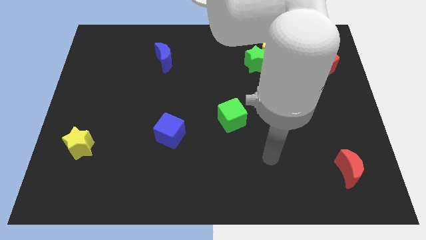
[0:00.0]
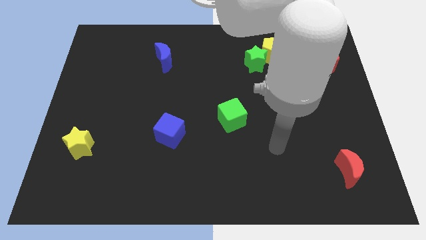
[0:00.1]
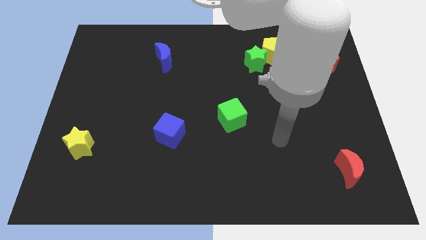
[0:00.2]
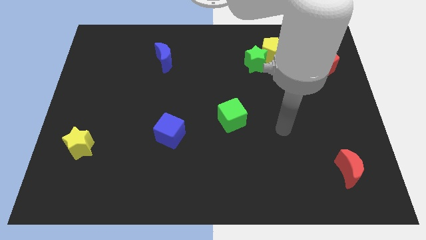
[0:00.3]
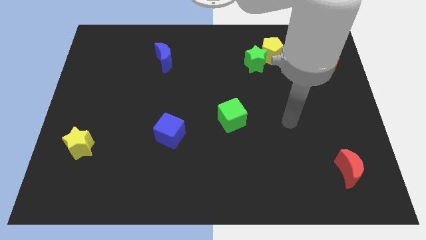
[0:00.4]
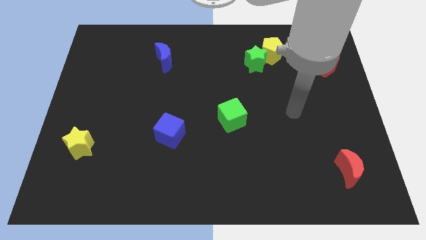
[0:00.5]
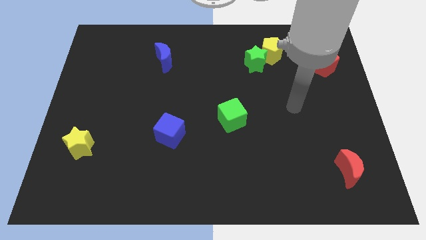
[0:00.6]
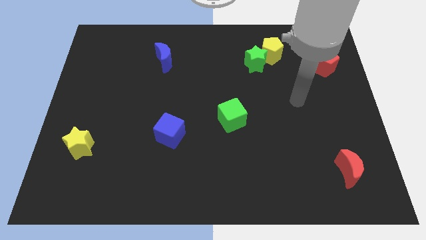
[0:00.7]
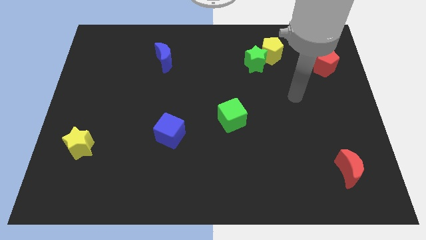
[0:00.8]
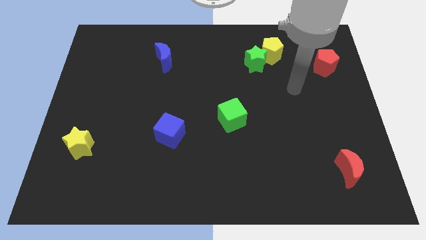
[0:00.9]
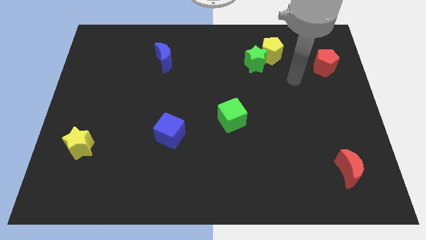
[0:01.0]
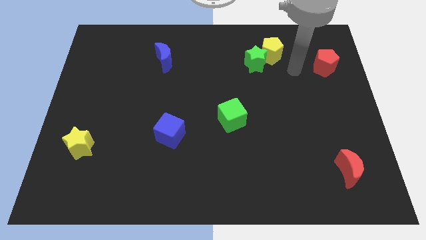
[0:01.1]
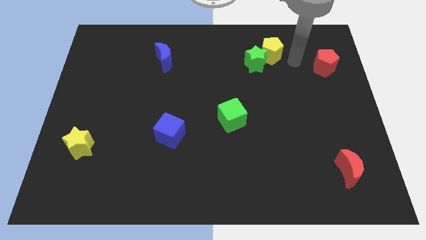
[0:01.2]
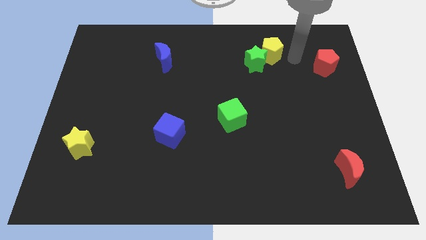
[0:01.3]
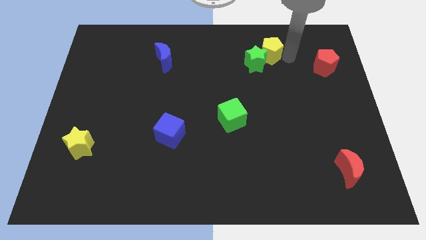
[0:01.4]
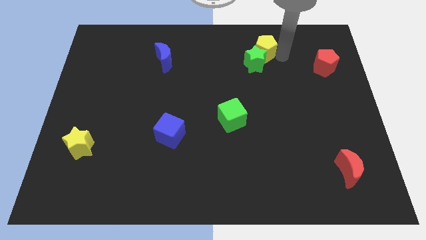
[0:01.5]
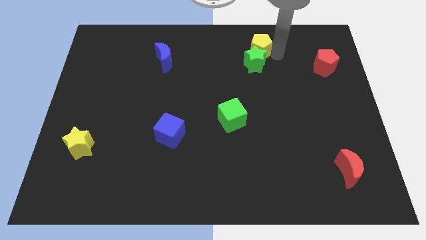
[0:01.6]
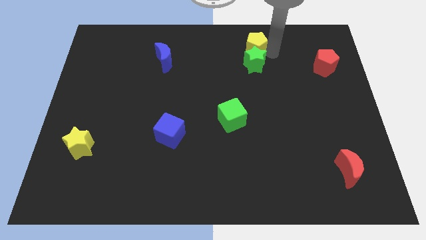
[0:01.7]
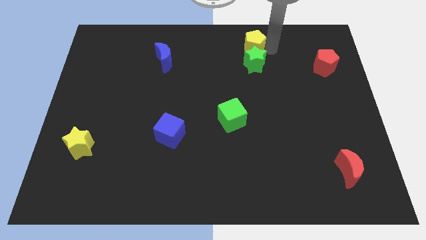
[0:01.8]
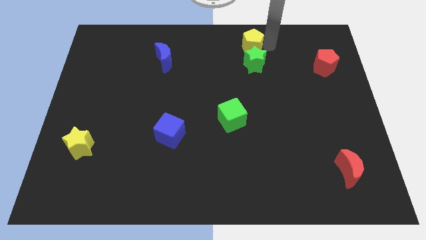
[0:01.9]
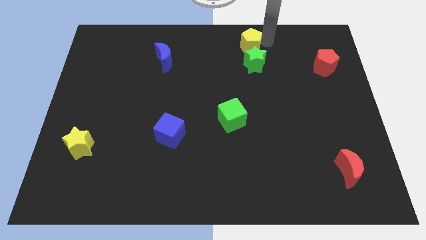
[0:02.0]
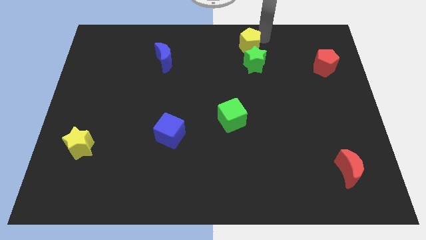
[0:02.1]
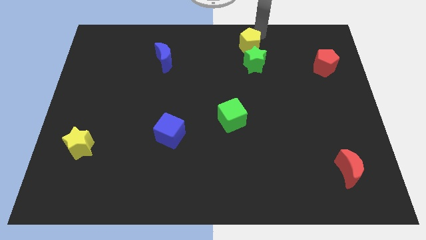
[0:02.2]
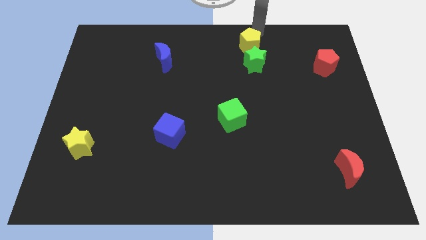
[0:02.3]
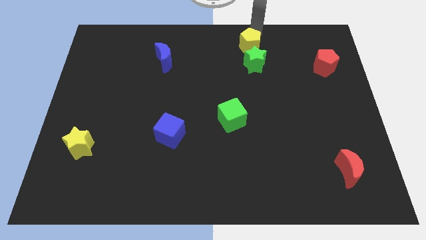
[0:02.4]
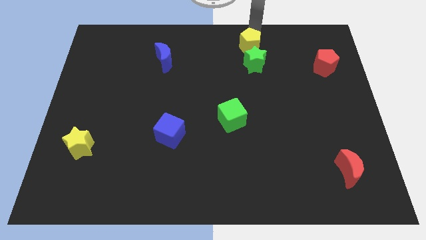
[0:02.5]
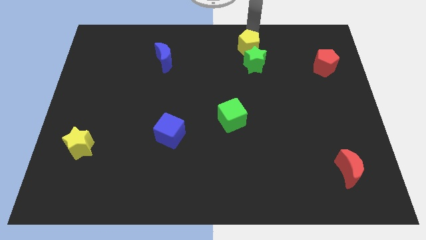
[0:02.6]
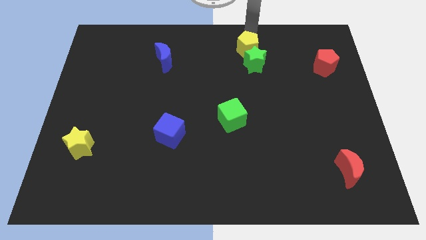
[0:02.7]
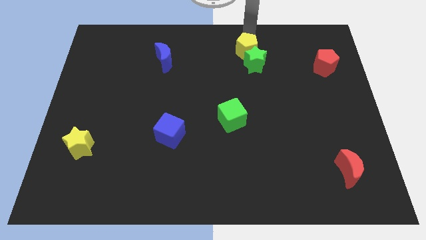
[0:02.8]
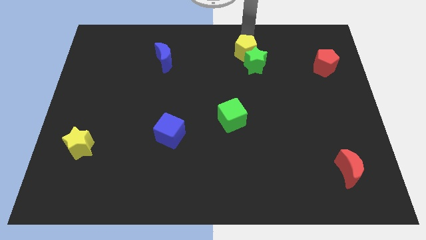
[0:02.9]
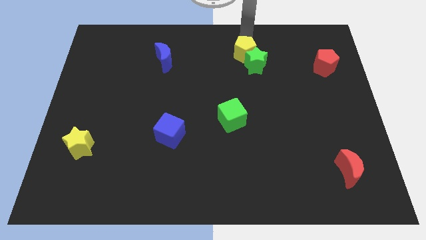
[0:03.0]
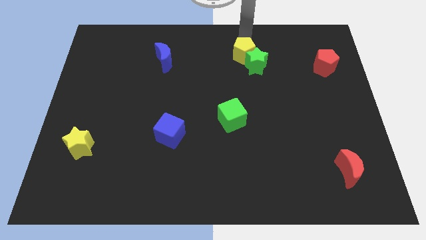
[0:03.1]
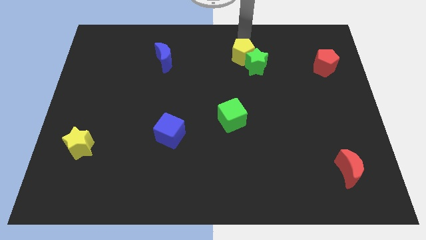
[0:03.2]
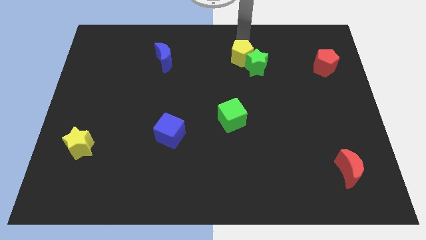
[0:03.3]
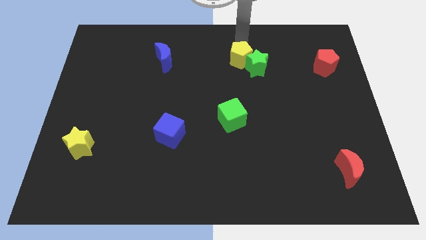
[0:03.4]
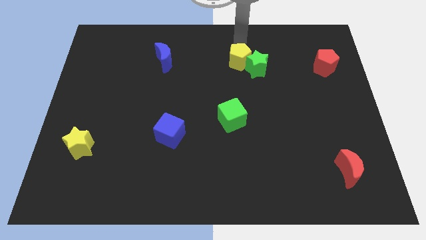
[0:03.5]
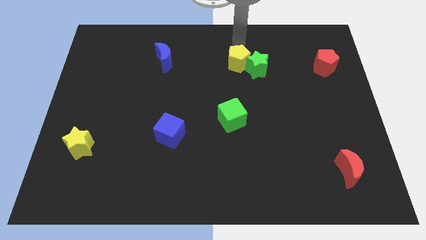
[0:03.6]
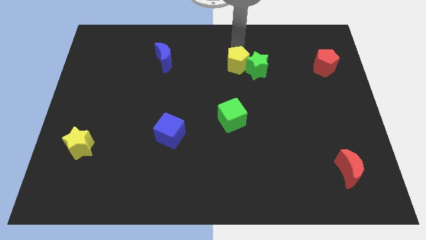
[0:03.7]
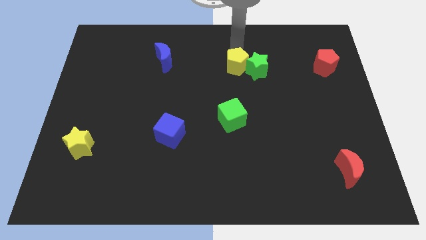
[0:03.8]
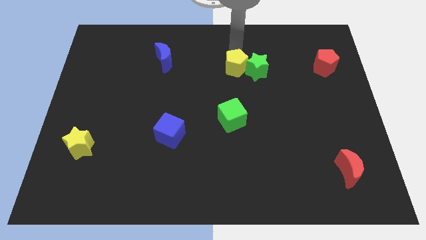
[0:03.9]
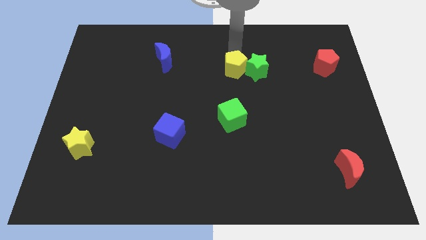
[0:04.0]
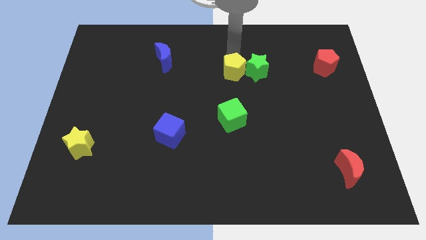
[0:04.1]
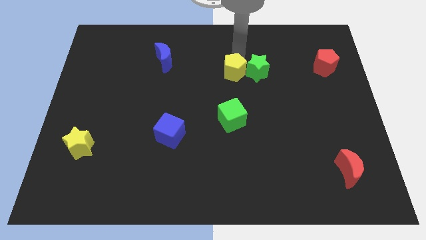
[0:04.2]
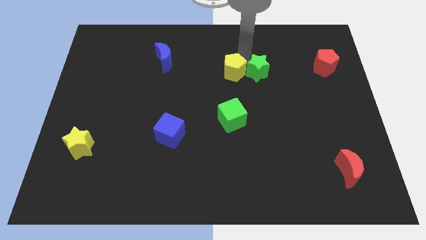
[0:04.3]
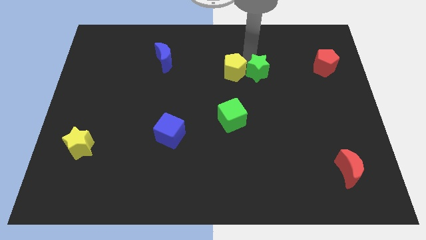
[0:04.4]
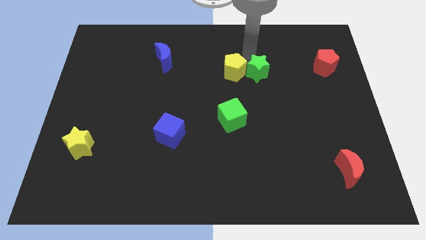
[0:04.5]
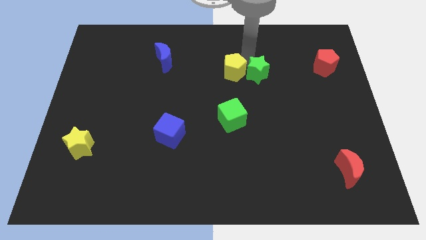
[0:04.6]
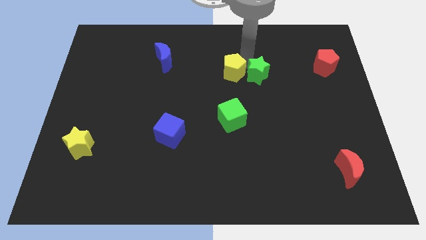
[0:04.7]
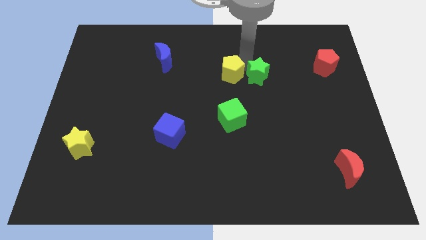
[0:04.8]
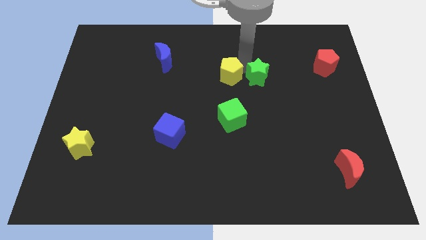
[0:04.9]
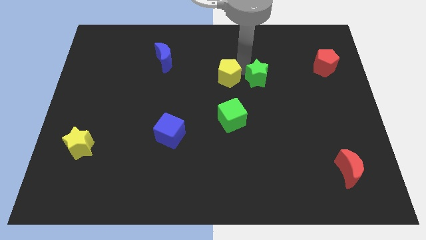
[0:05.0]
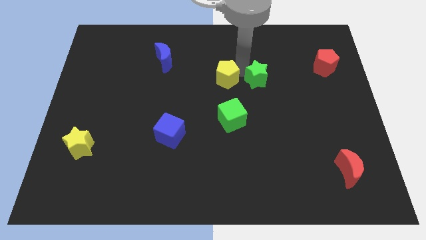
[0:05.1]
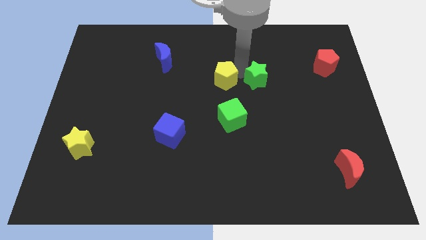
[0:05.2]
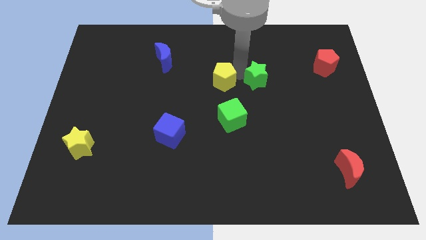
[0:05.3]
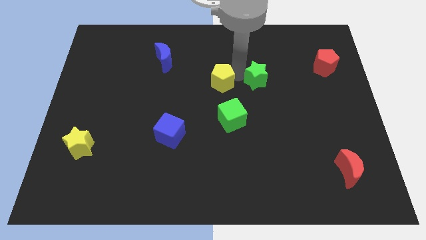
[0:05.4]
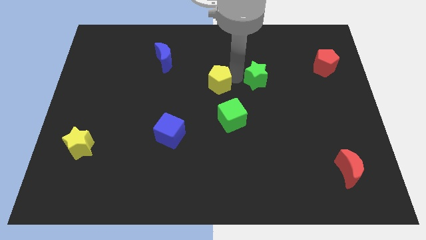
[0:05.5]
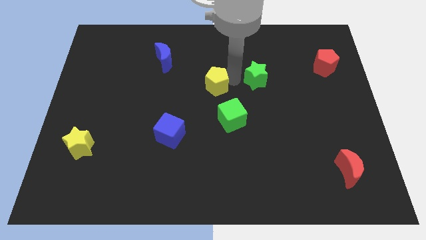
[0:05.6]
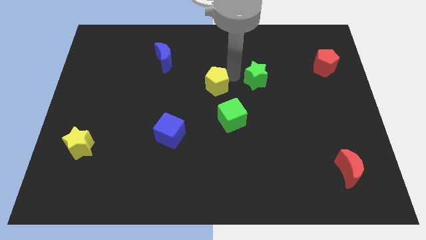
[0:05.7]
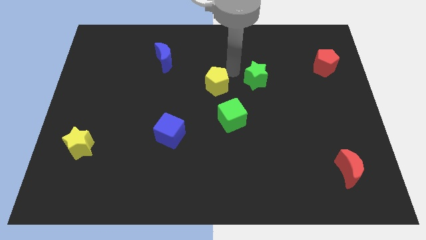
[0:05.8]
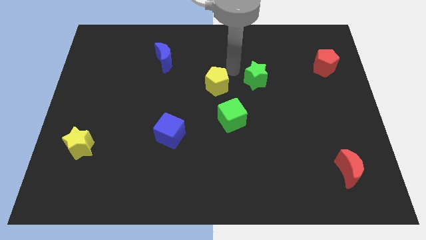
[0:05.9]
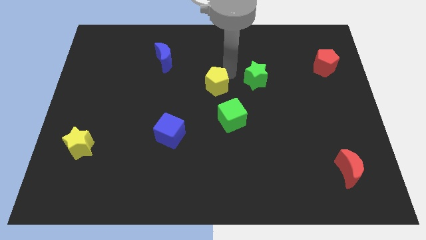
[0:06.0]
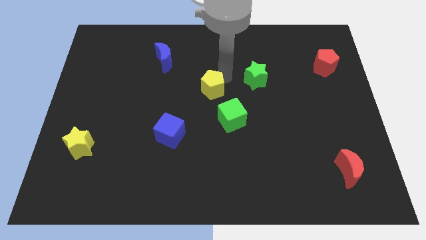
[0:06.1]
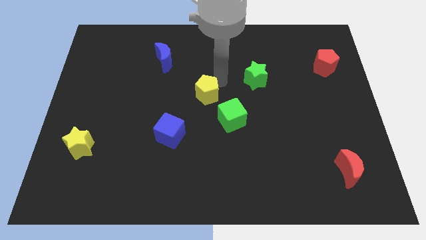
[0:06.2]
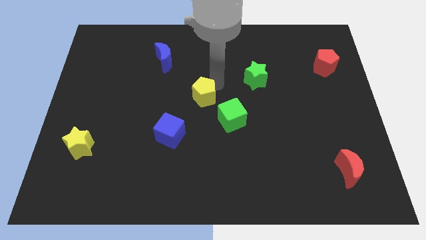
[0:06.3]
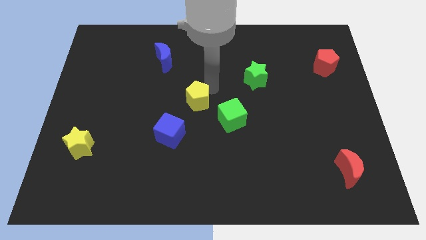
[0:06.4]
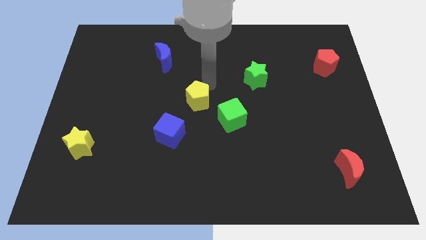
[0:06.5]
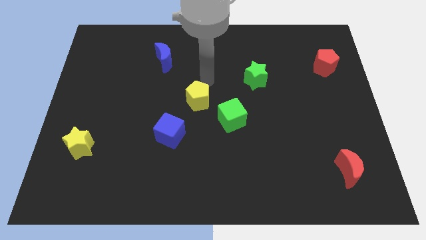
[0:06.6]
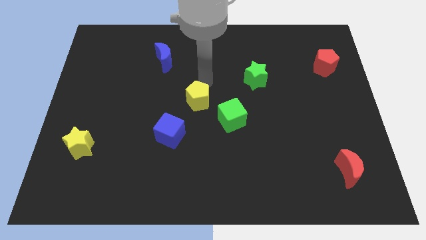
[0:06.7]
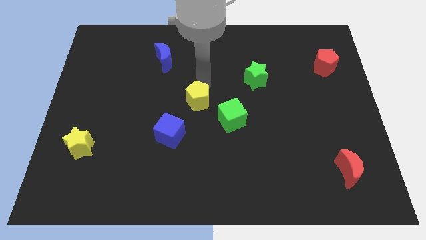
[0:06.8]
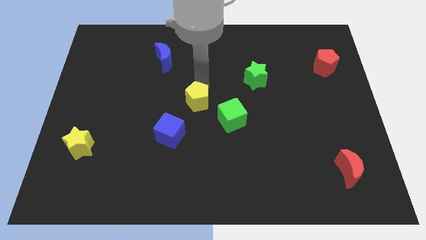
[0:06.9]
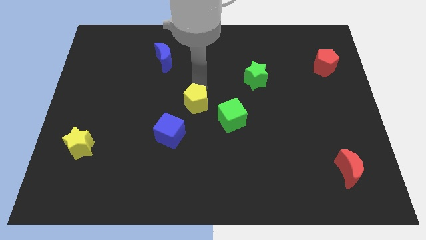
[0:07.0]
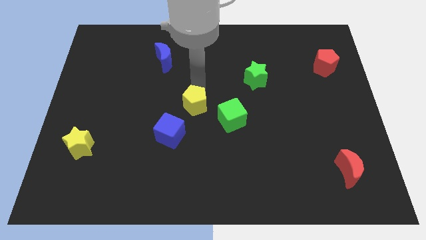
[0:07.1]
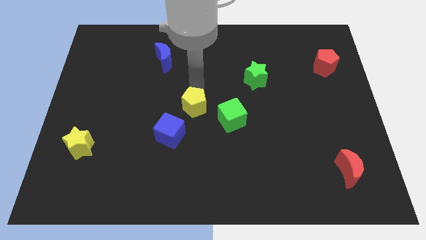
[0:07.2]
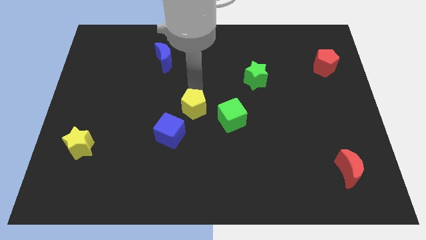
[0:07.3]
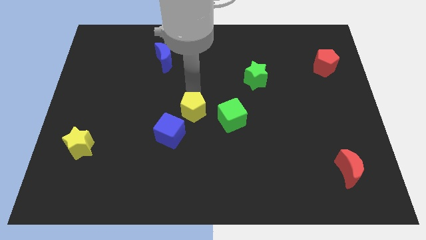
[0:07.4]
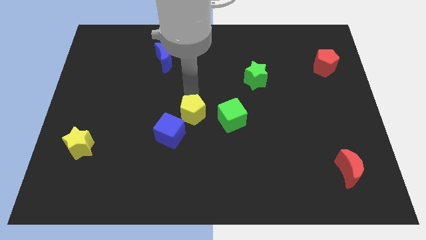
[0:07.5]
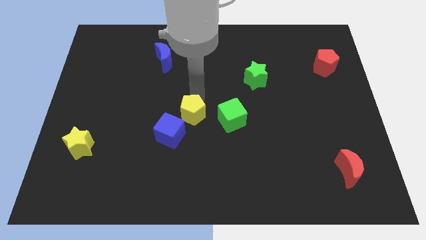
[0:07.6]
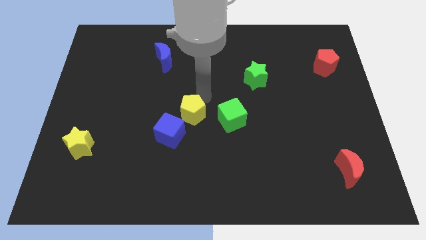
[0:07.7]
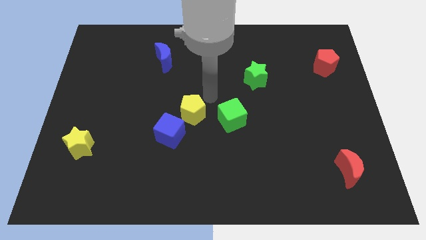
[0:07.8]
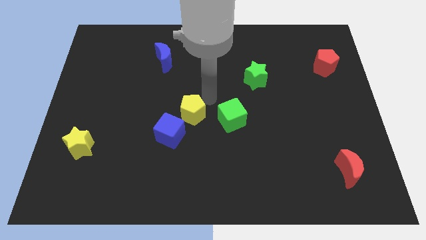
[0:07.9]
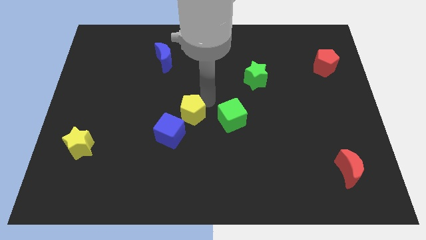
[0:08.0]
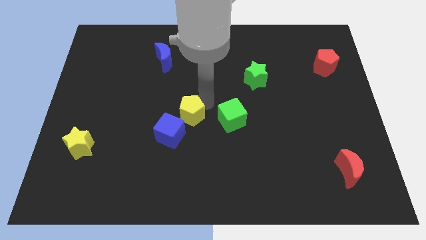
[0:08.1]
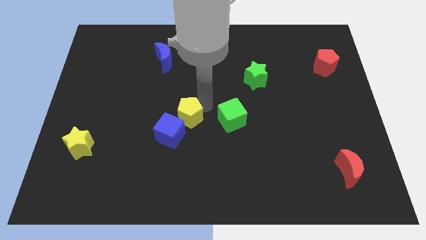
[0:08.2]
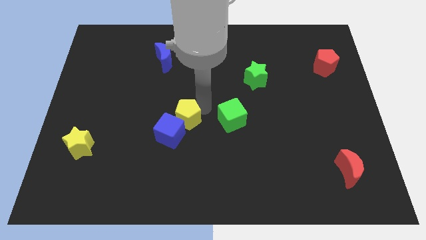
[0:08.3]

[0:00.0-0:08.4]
push the yellow pentagon to the blue cube
